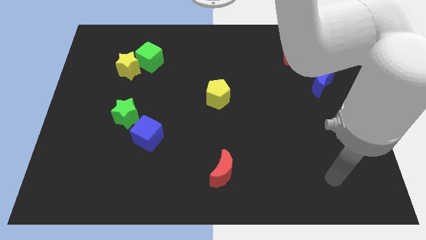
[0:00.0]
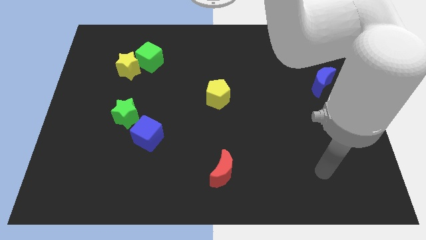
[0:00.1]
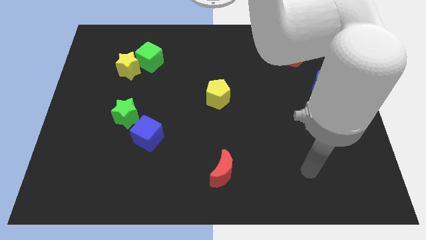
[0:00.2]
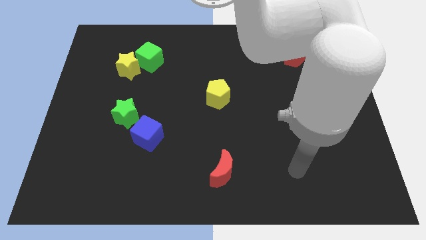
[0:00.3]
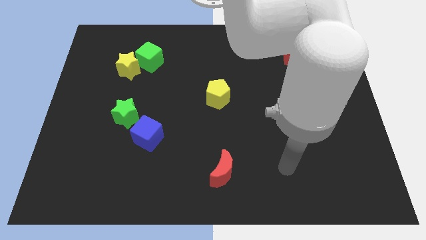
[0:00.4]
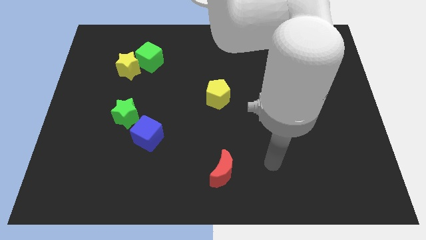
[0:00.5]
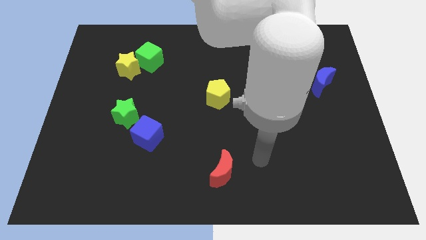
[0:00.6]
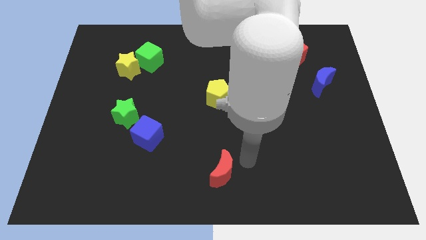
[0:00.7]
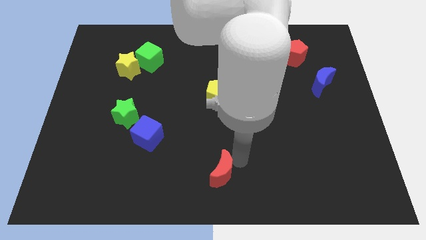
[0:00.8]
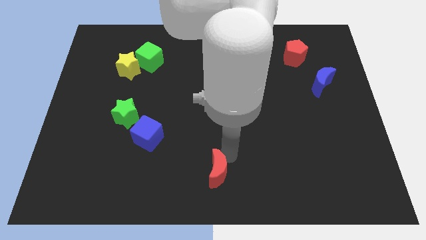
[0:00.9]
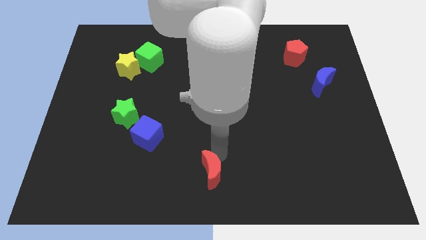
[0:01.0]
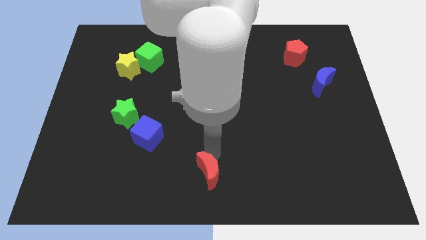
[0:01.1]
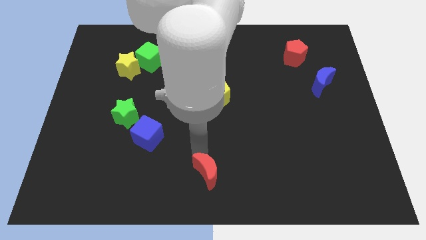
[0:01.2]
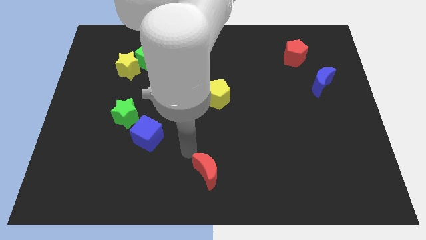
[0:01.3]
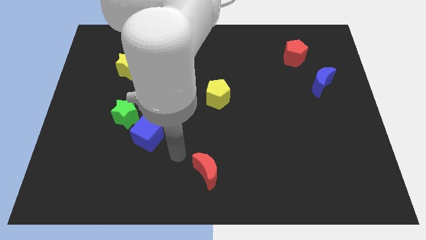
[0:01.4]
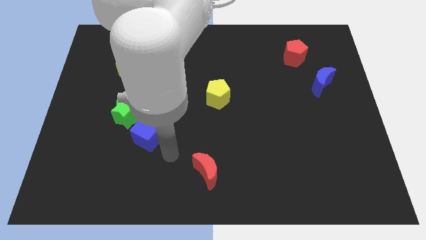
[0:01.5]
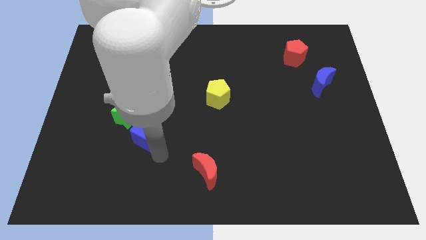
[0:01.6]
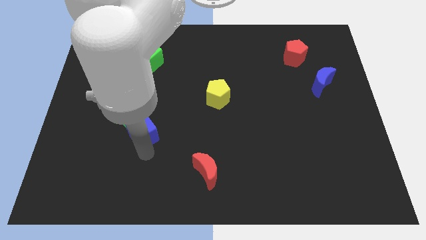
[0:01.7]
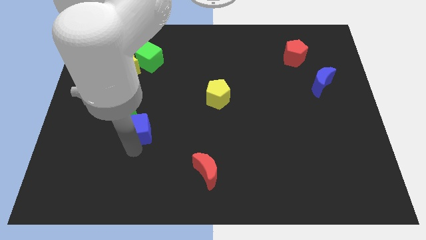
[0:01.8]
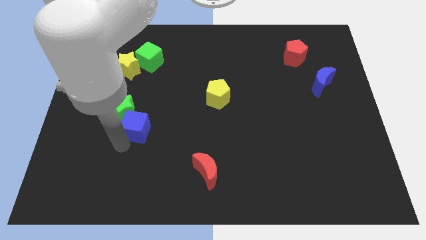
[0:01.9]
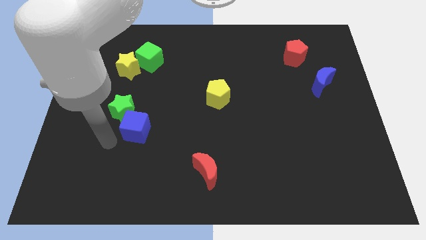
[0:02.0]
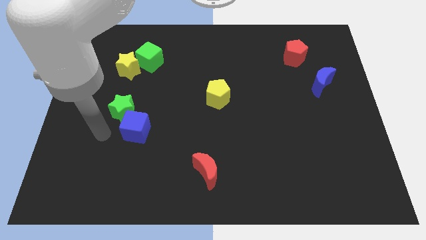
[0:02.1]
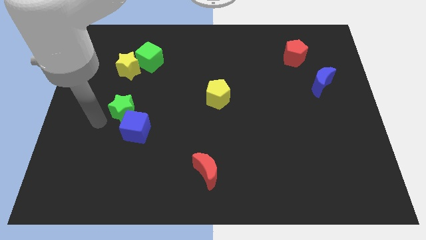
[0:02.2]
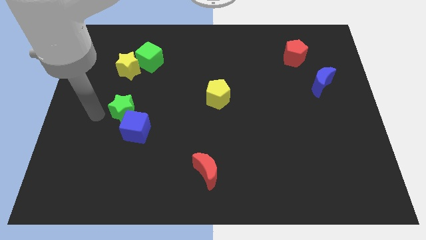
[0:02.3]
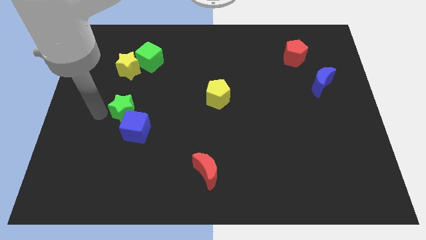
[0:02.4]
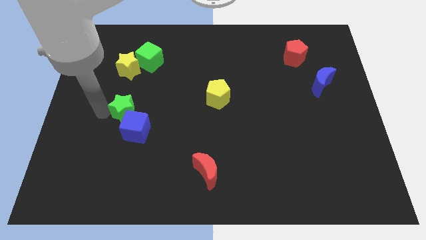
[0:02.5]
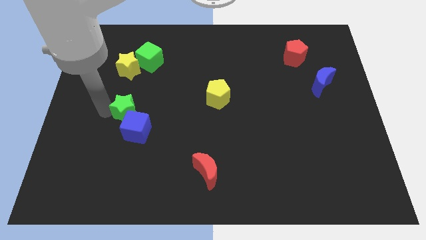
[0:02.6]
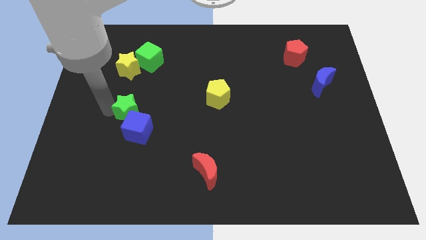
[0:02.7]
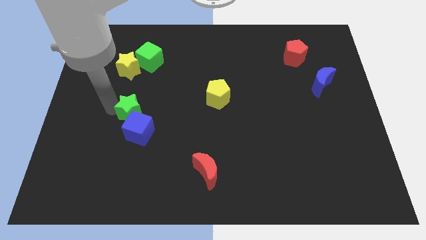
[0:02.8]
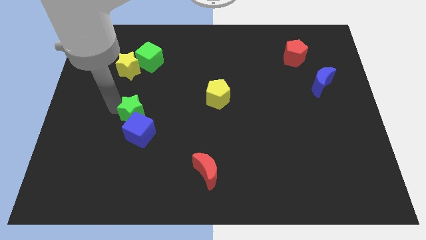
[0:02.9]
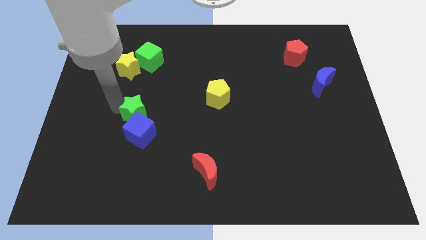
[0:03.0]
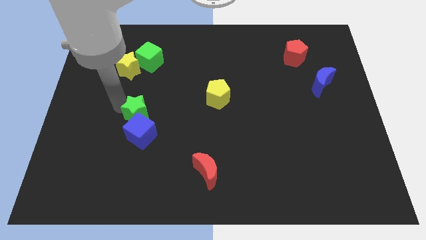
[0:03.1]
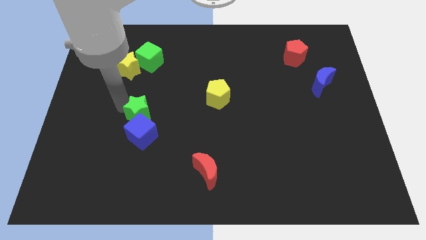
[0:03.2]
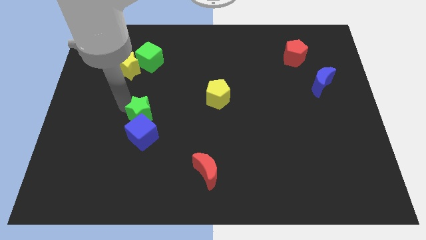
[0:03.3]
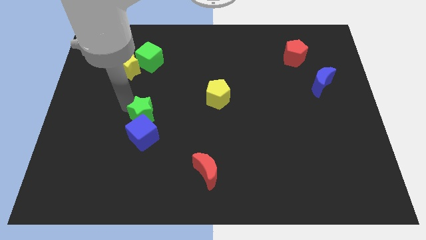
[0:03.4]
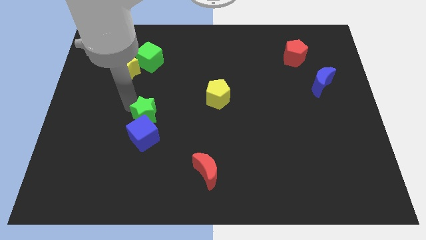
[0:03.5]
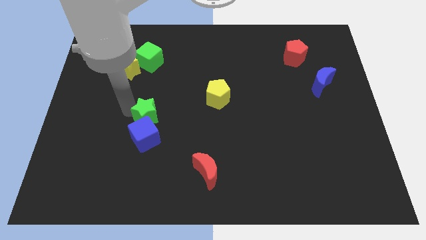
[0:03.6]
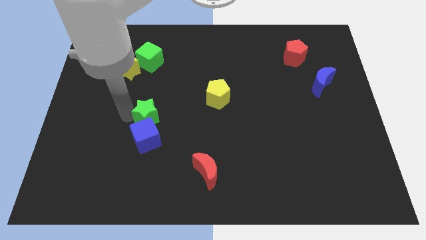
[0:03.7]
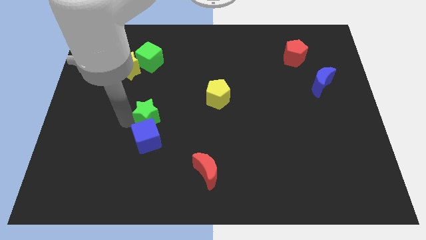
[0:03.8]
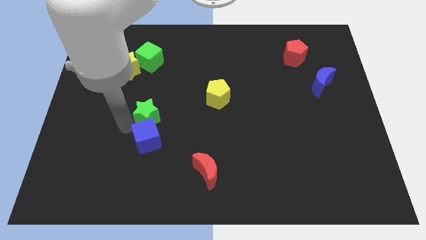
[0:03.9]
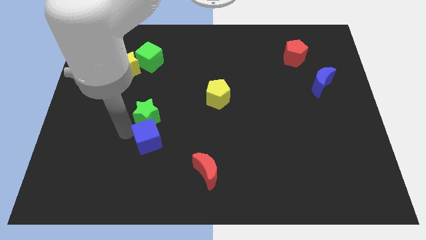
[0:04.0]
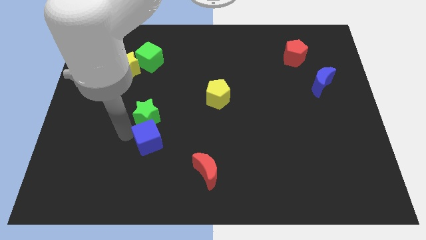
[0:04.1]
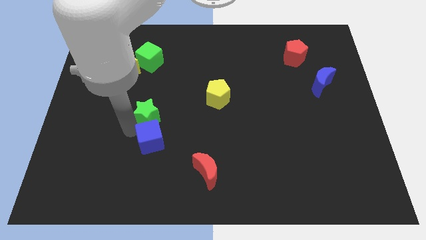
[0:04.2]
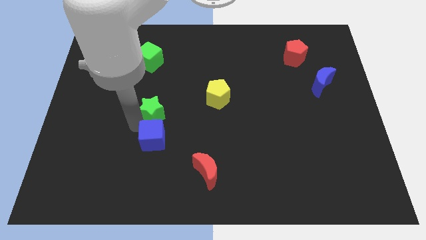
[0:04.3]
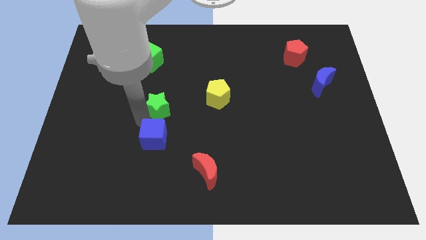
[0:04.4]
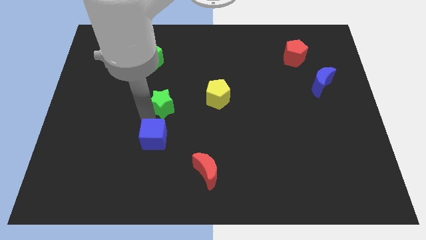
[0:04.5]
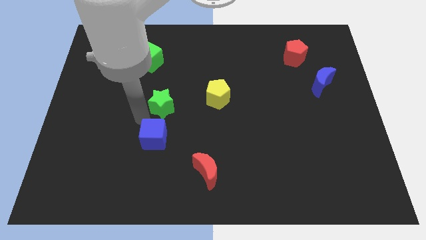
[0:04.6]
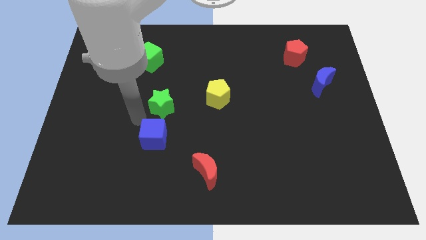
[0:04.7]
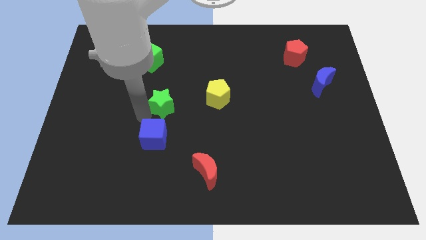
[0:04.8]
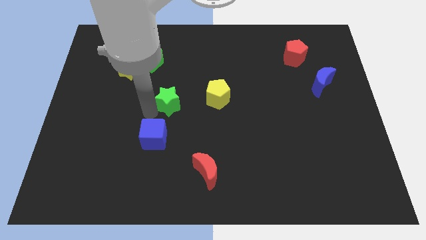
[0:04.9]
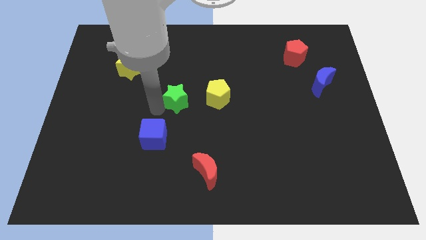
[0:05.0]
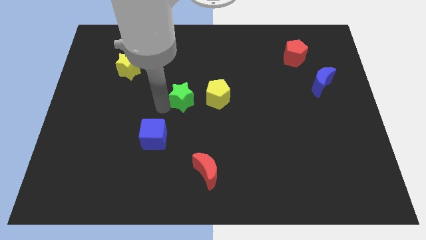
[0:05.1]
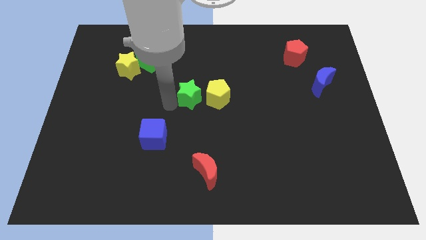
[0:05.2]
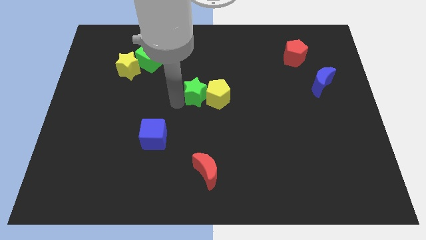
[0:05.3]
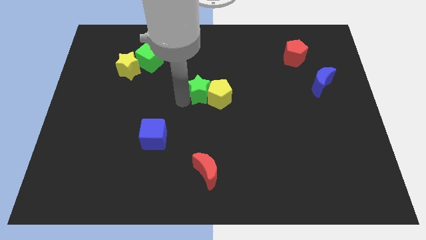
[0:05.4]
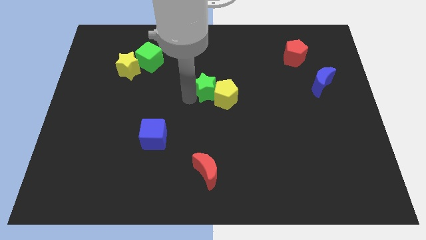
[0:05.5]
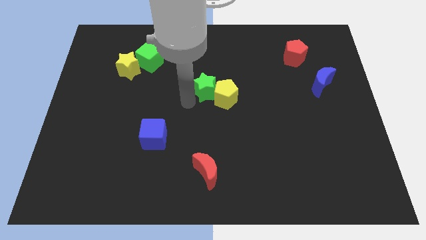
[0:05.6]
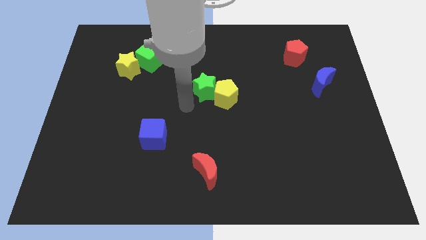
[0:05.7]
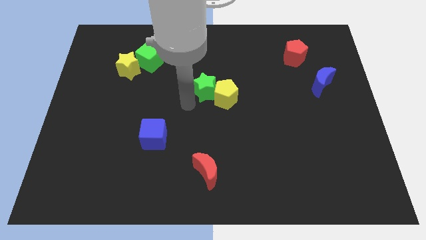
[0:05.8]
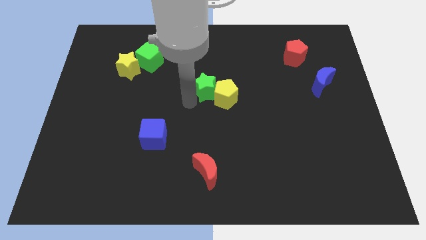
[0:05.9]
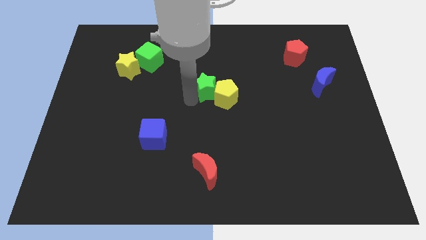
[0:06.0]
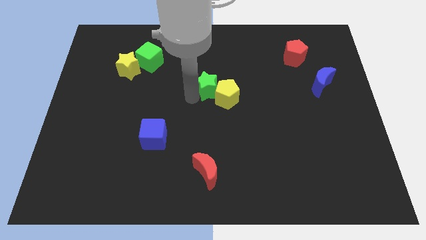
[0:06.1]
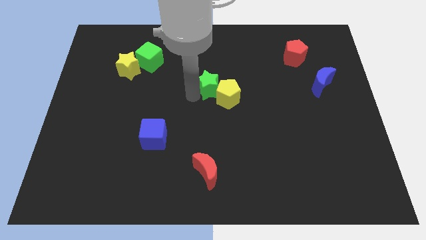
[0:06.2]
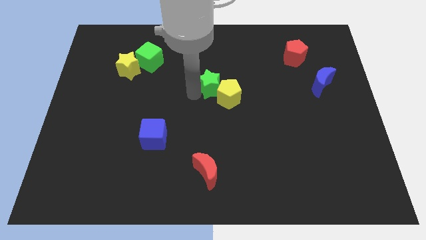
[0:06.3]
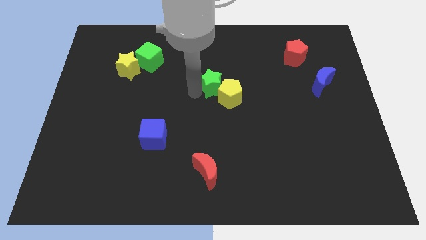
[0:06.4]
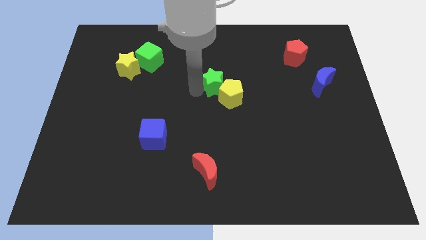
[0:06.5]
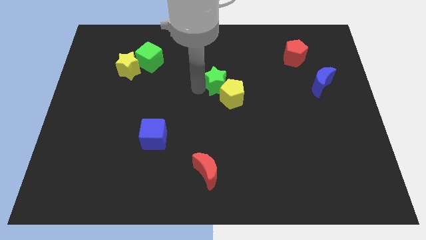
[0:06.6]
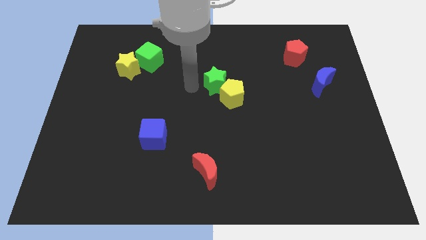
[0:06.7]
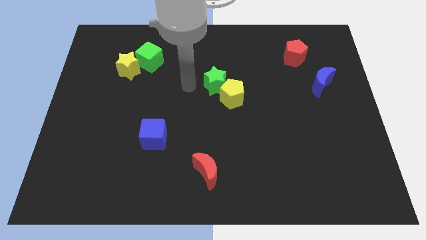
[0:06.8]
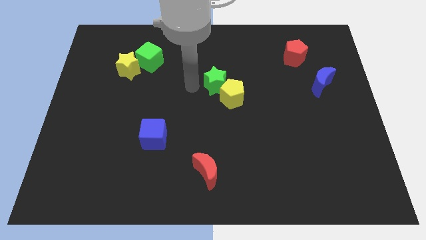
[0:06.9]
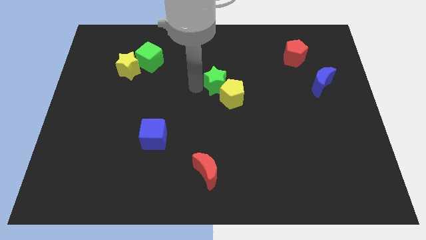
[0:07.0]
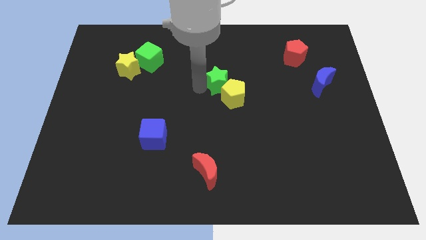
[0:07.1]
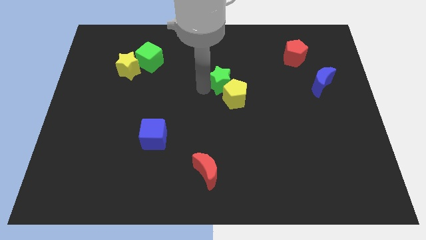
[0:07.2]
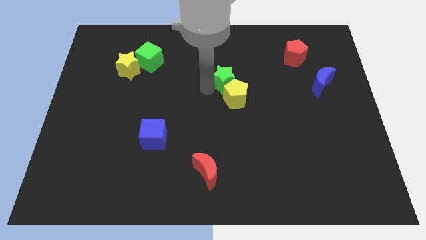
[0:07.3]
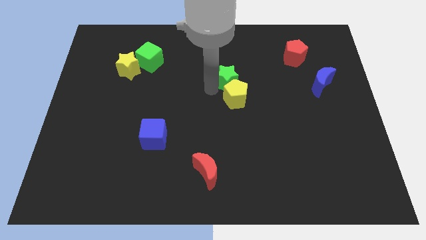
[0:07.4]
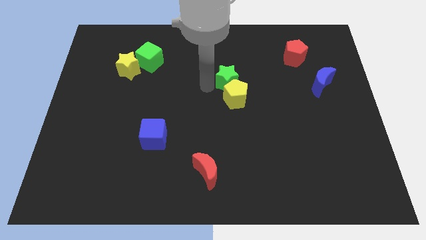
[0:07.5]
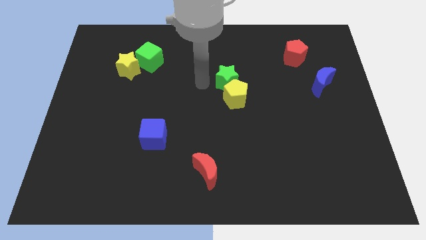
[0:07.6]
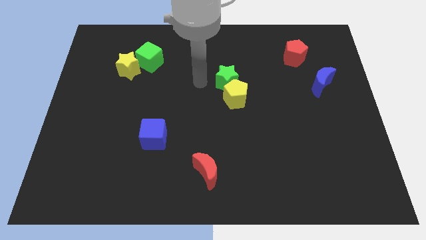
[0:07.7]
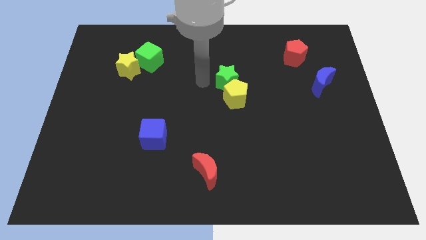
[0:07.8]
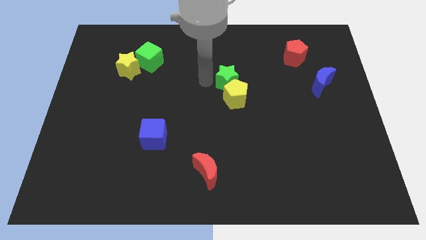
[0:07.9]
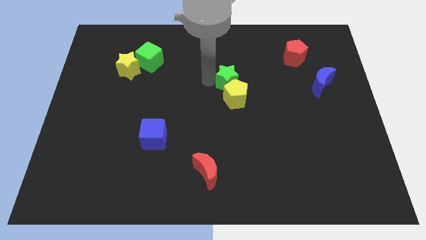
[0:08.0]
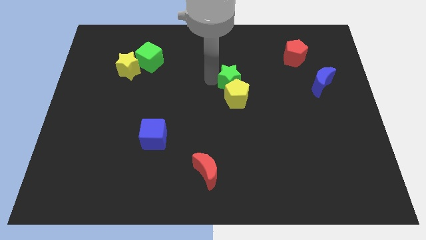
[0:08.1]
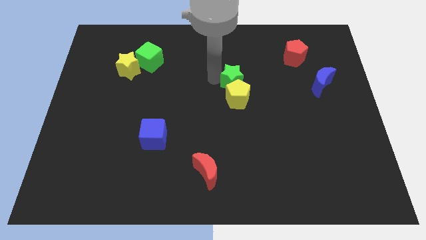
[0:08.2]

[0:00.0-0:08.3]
move the green star diagonally up and to the right of the yellow pentagon
